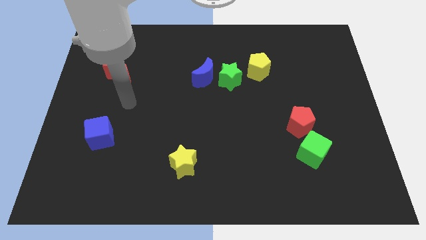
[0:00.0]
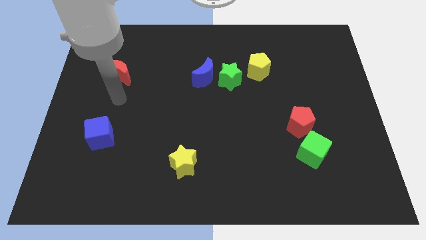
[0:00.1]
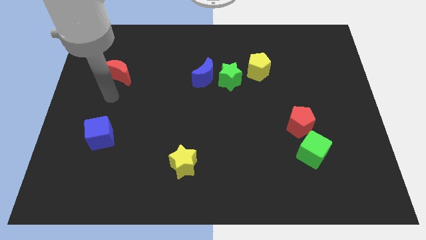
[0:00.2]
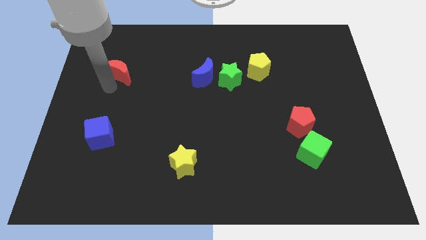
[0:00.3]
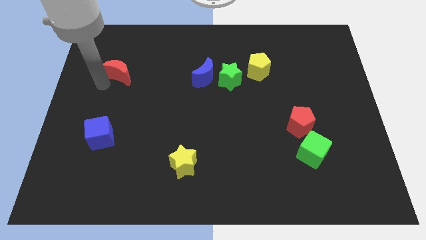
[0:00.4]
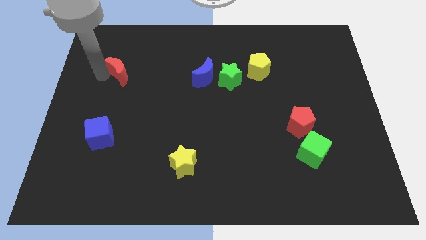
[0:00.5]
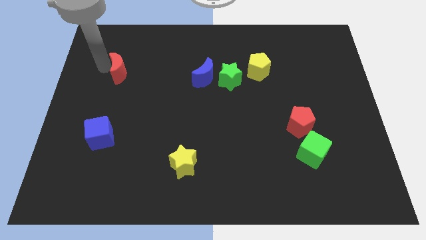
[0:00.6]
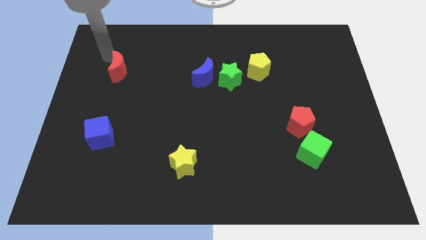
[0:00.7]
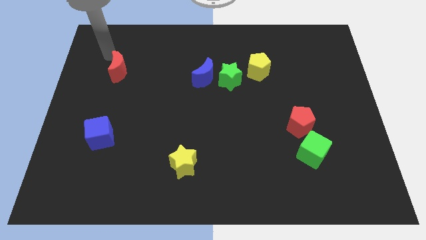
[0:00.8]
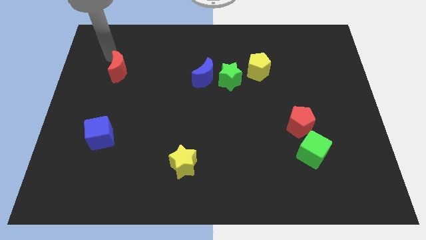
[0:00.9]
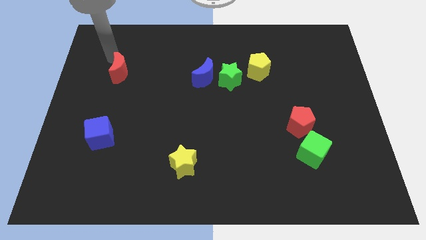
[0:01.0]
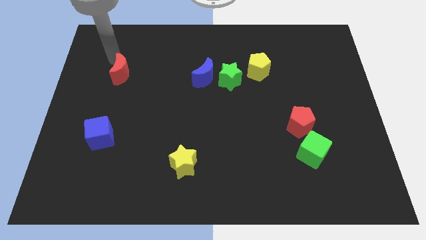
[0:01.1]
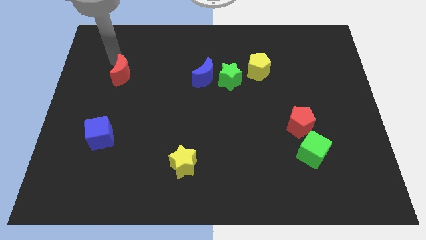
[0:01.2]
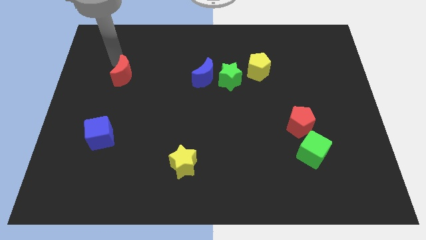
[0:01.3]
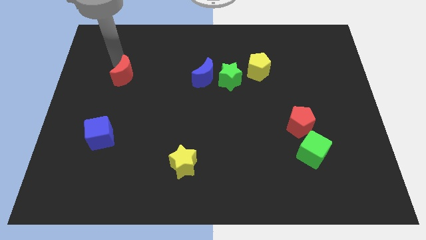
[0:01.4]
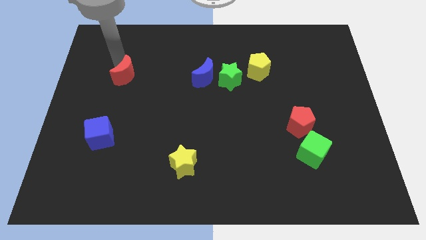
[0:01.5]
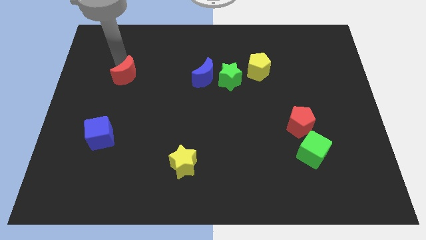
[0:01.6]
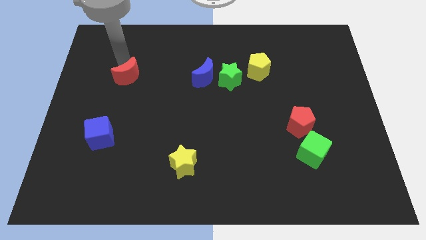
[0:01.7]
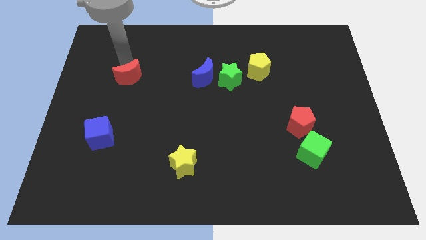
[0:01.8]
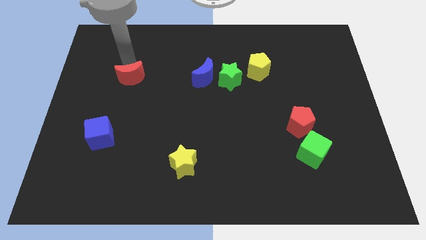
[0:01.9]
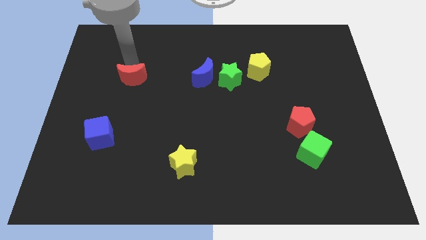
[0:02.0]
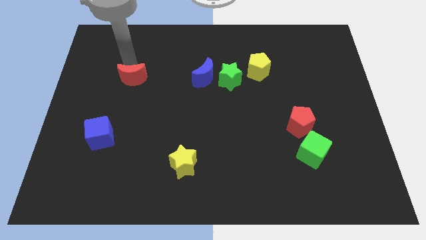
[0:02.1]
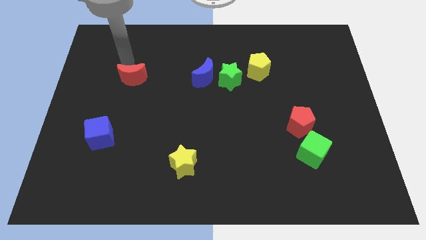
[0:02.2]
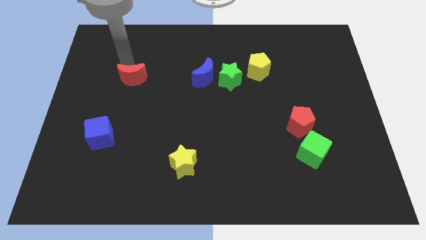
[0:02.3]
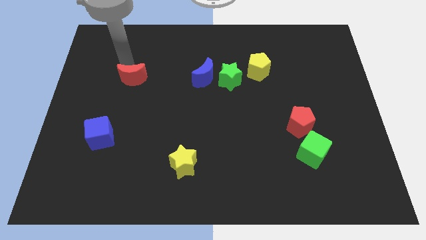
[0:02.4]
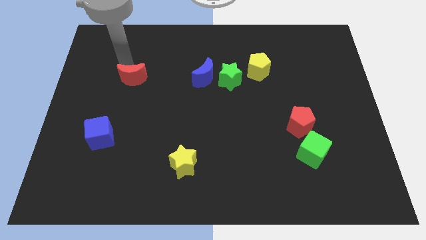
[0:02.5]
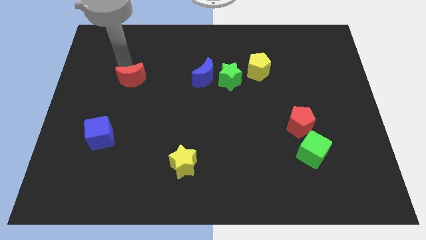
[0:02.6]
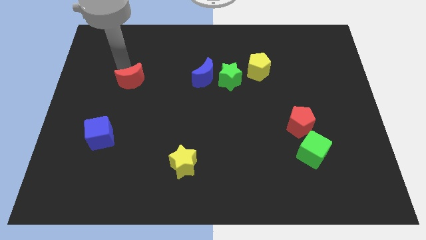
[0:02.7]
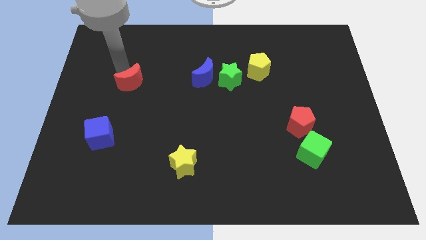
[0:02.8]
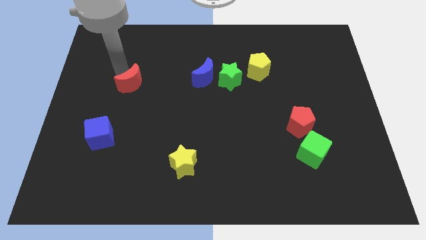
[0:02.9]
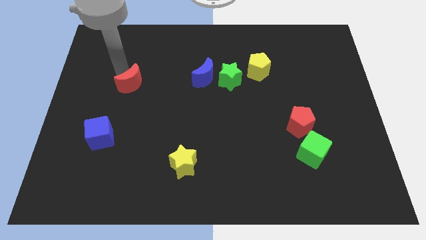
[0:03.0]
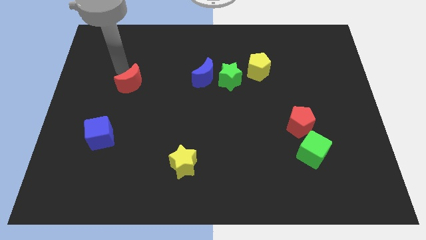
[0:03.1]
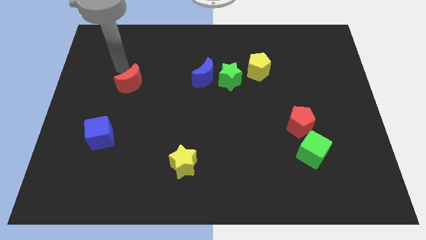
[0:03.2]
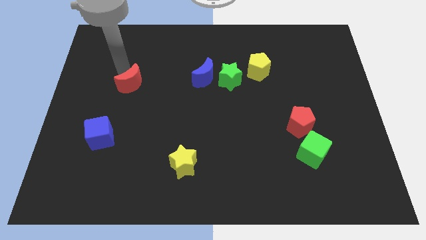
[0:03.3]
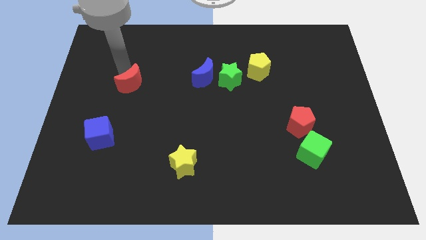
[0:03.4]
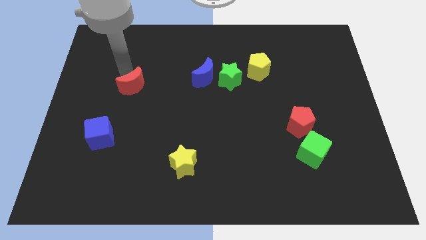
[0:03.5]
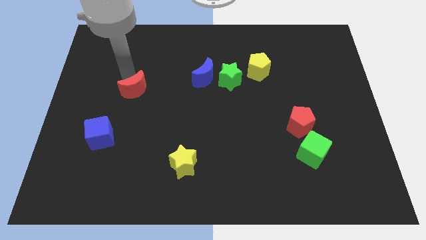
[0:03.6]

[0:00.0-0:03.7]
push the red moon a bit diagonally down and right

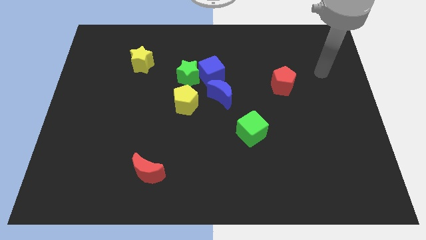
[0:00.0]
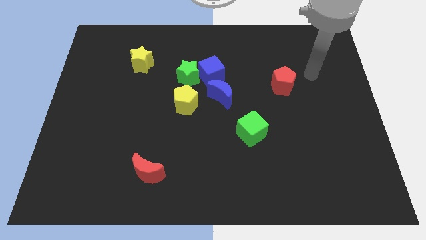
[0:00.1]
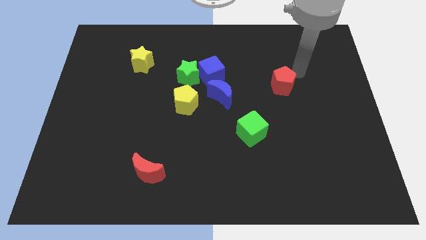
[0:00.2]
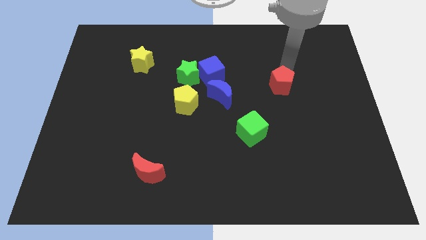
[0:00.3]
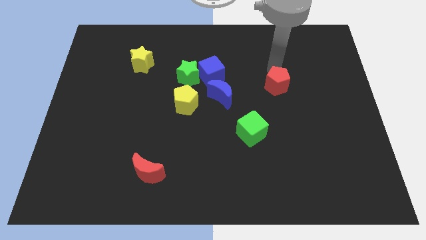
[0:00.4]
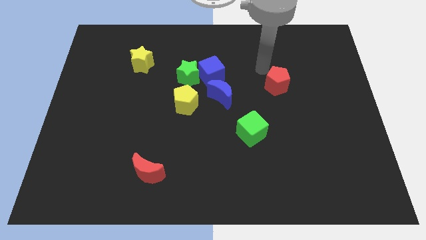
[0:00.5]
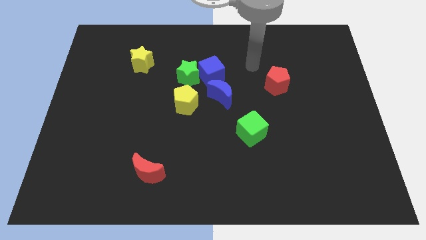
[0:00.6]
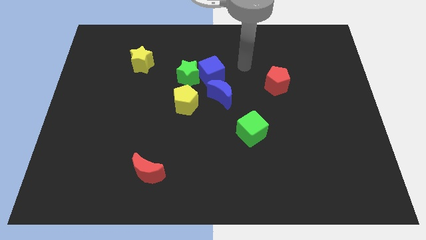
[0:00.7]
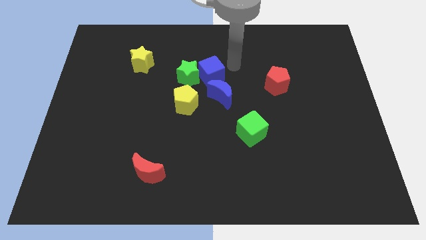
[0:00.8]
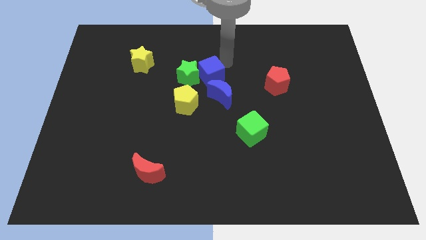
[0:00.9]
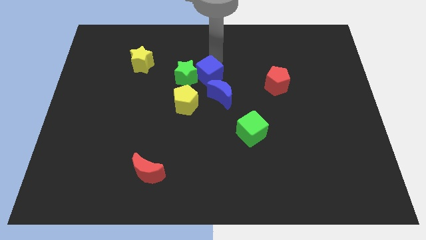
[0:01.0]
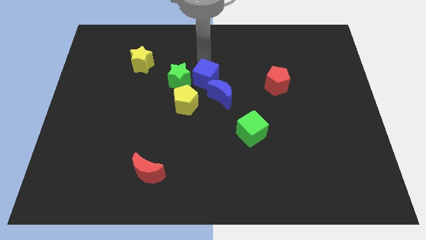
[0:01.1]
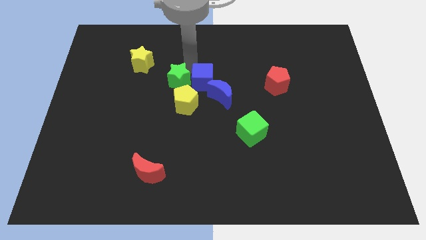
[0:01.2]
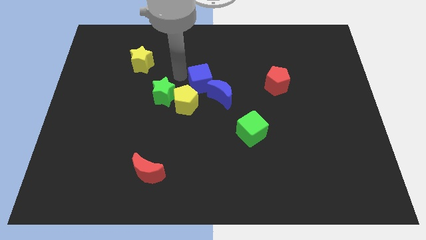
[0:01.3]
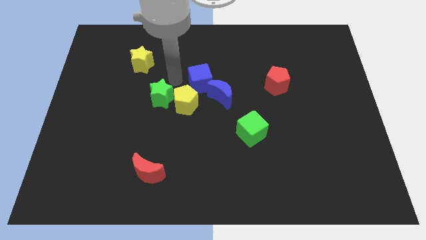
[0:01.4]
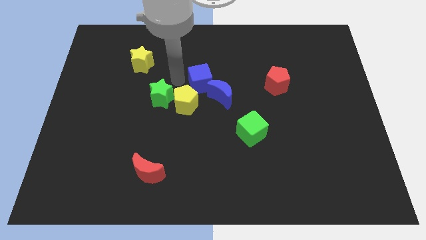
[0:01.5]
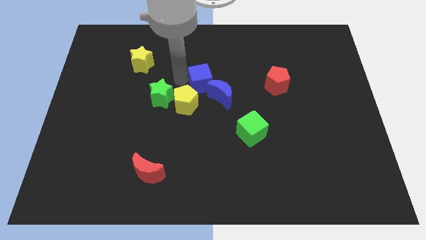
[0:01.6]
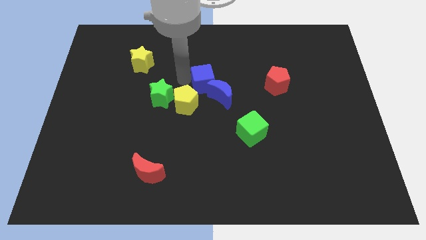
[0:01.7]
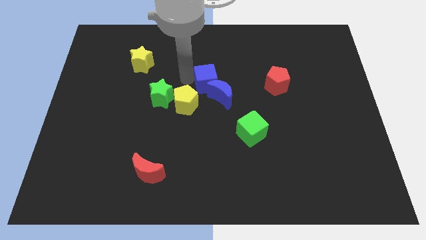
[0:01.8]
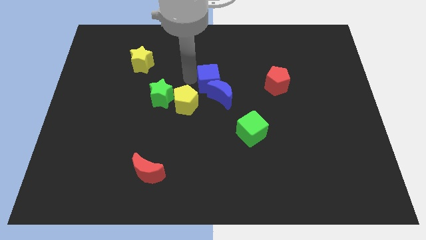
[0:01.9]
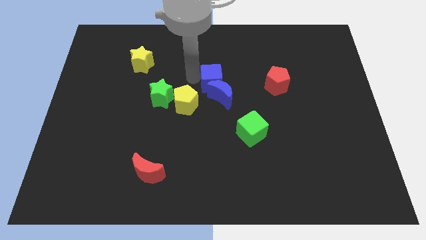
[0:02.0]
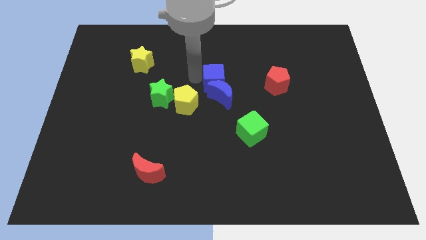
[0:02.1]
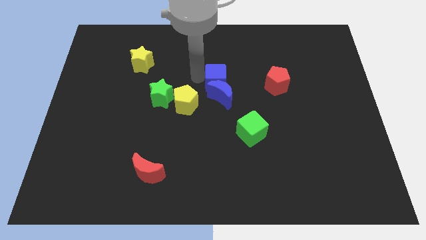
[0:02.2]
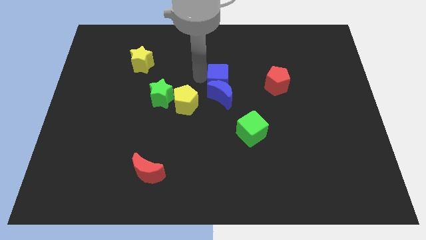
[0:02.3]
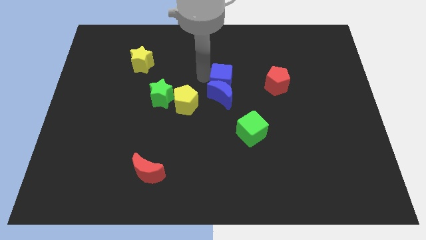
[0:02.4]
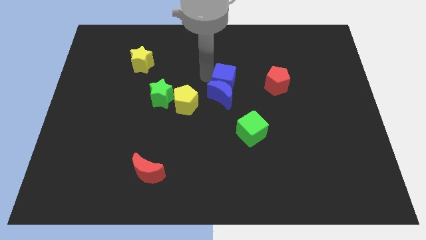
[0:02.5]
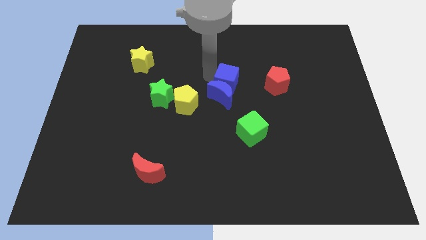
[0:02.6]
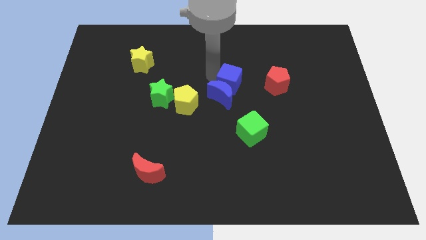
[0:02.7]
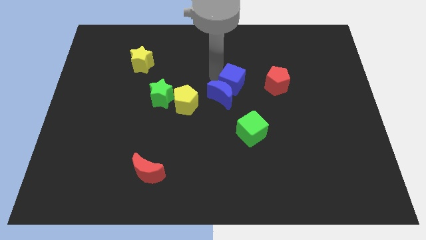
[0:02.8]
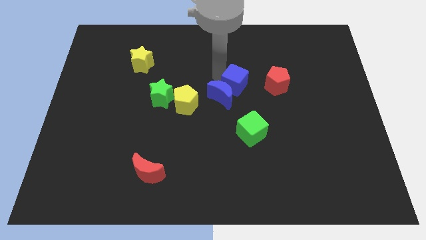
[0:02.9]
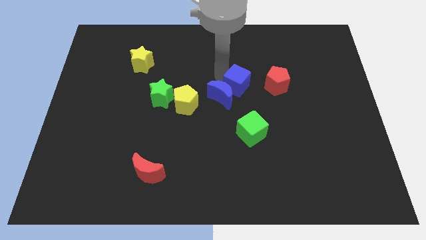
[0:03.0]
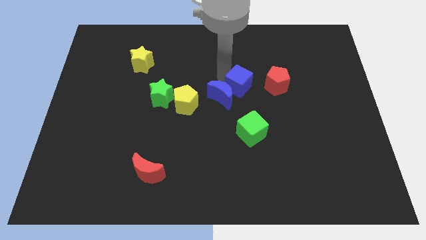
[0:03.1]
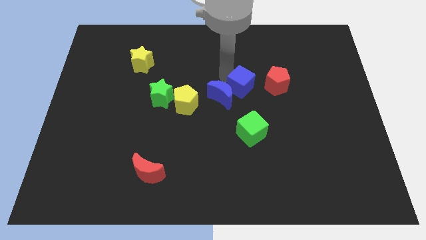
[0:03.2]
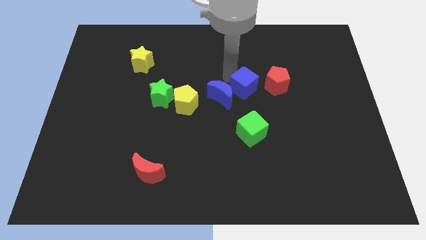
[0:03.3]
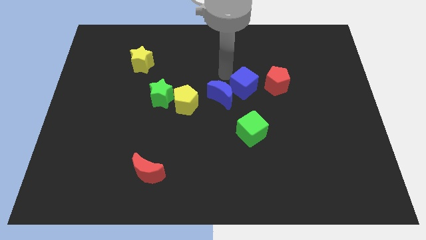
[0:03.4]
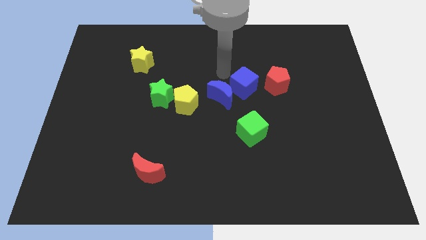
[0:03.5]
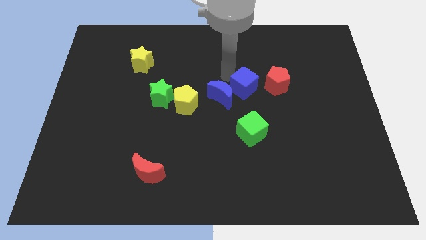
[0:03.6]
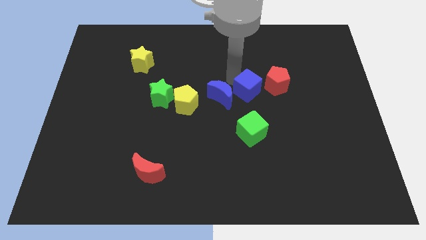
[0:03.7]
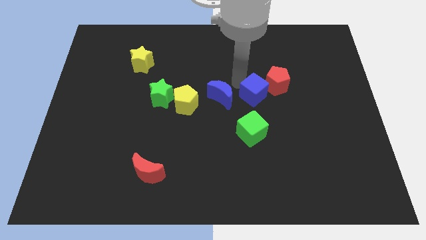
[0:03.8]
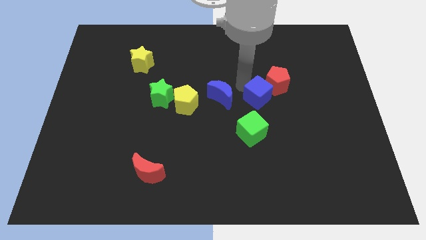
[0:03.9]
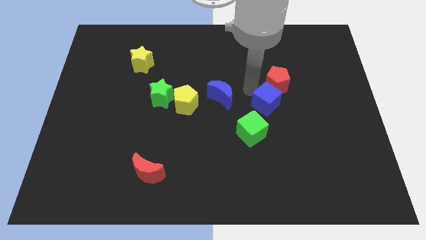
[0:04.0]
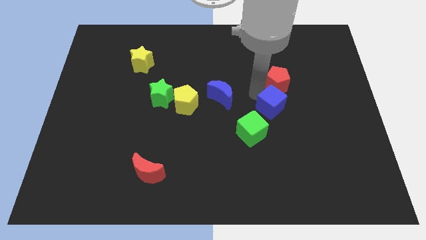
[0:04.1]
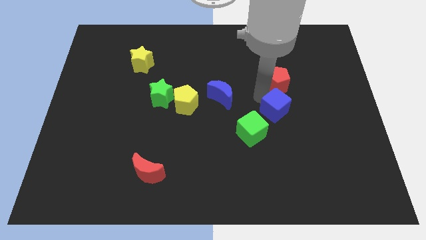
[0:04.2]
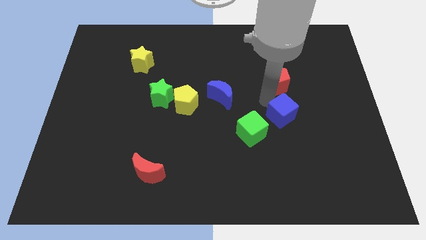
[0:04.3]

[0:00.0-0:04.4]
move the blue cube down and right diagonally

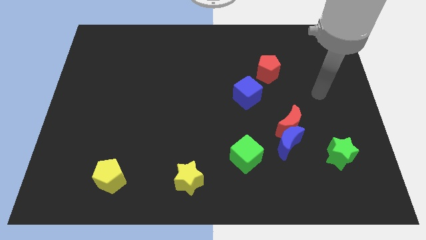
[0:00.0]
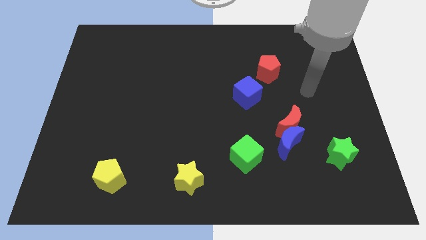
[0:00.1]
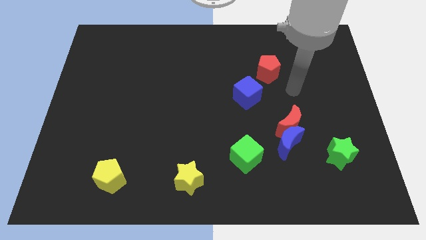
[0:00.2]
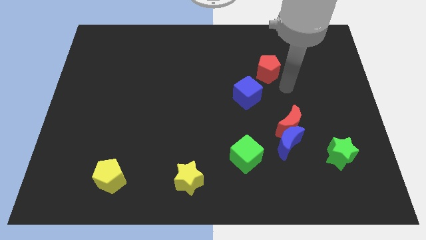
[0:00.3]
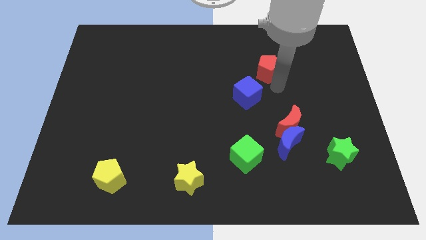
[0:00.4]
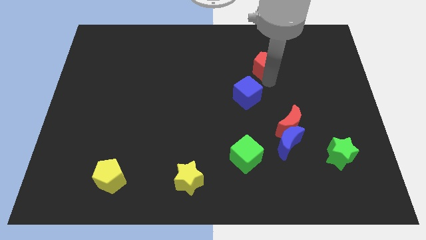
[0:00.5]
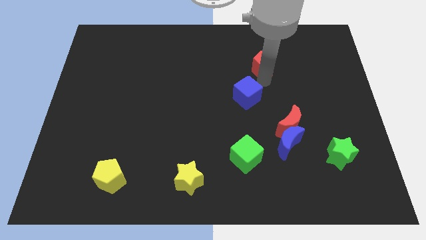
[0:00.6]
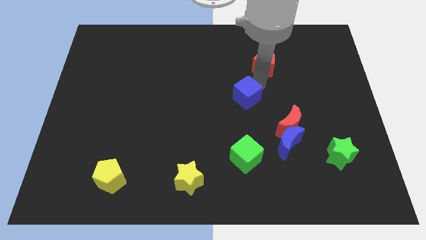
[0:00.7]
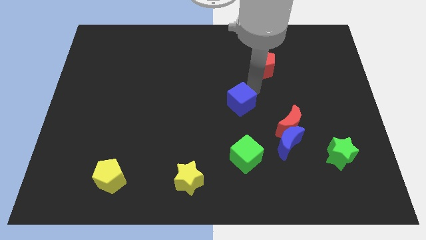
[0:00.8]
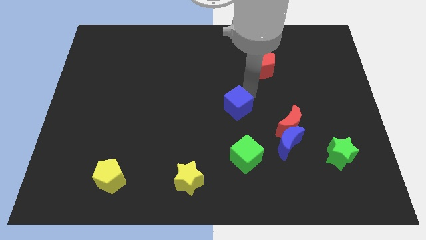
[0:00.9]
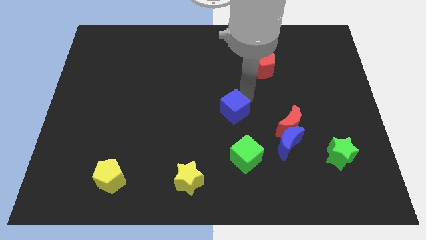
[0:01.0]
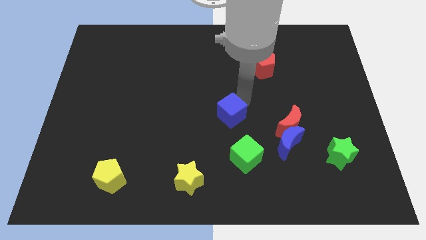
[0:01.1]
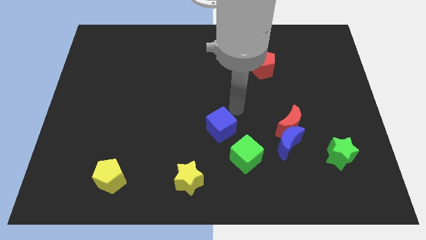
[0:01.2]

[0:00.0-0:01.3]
slightly push the blue cube downwards and to the left
